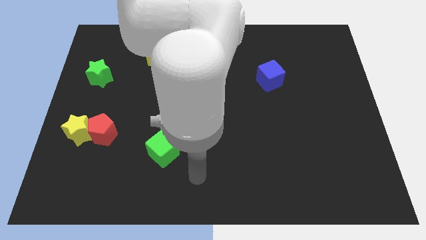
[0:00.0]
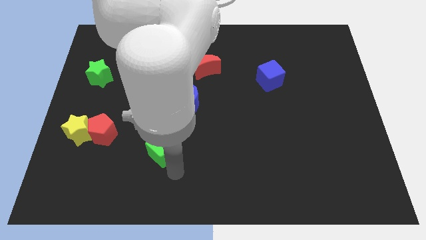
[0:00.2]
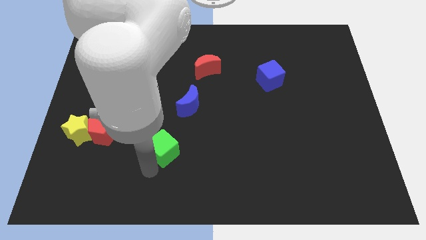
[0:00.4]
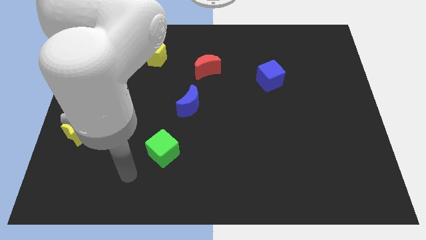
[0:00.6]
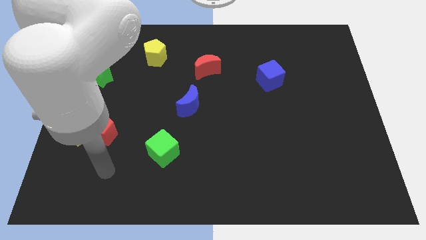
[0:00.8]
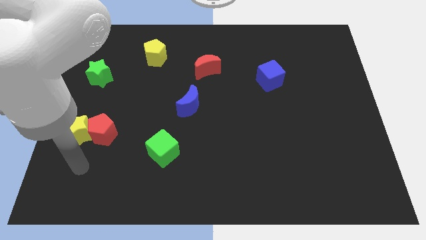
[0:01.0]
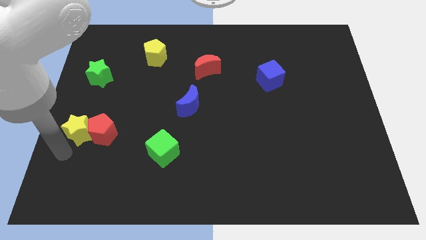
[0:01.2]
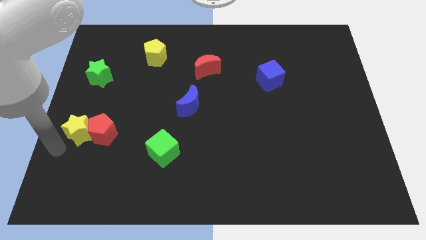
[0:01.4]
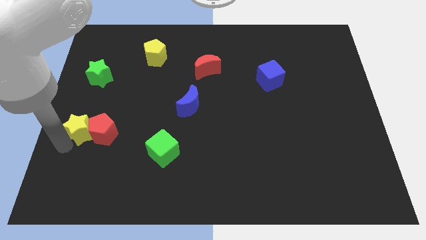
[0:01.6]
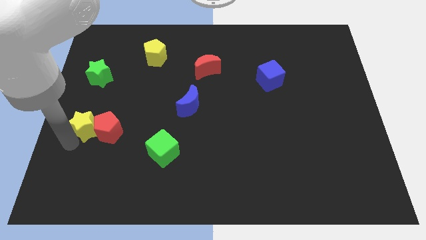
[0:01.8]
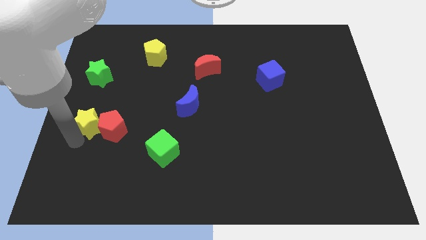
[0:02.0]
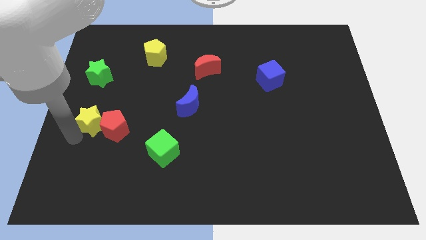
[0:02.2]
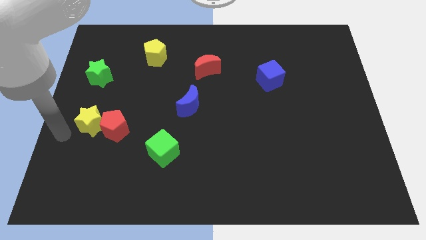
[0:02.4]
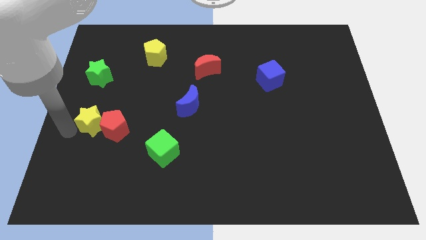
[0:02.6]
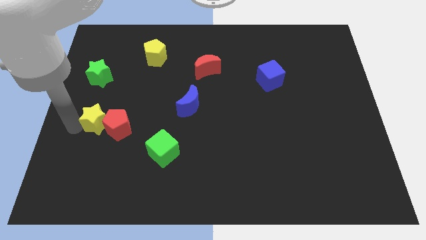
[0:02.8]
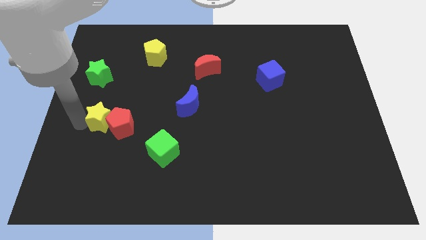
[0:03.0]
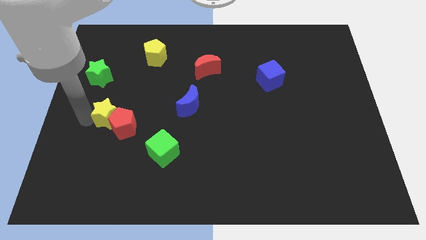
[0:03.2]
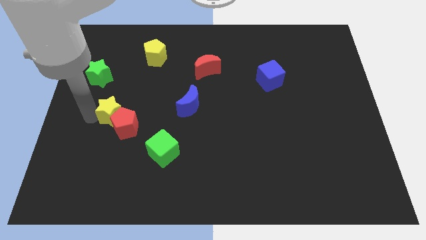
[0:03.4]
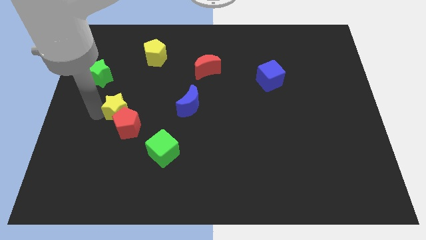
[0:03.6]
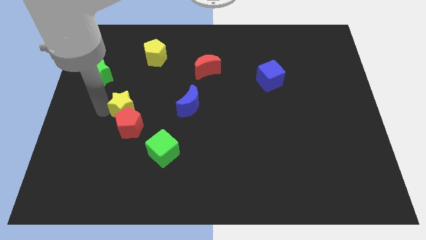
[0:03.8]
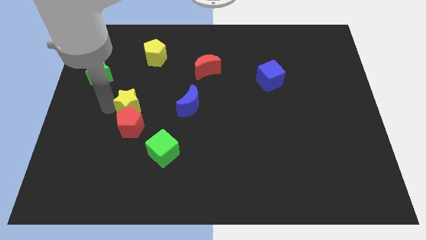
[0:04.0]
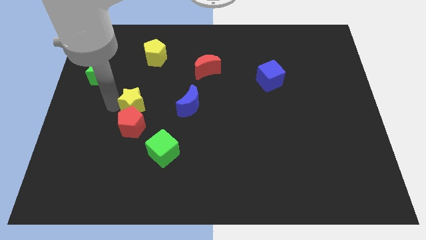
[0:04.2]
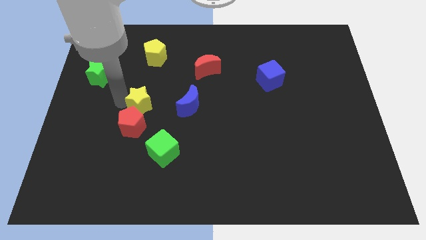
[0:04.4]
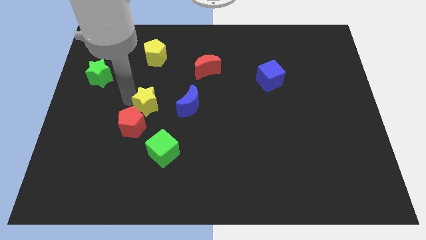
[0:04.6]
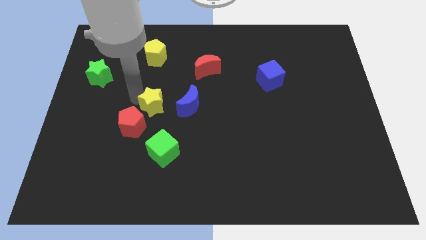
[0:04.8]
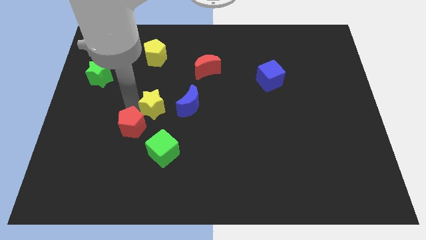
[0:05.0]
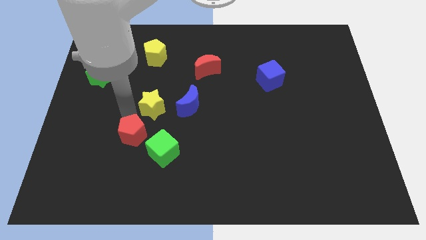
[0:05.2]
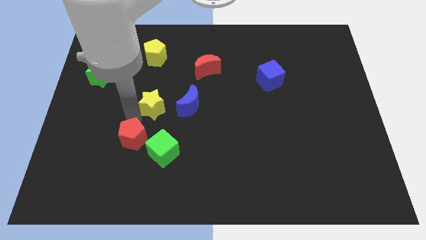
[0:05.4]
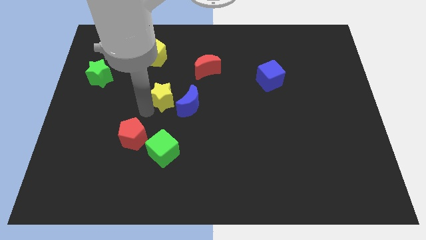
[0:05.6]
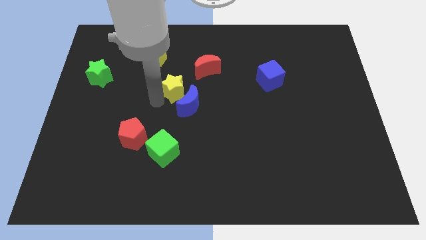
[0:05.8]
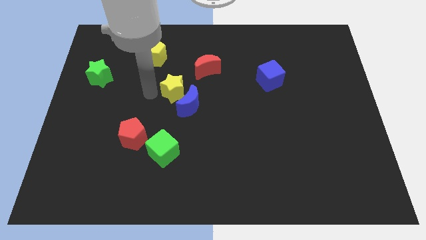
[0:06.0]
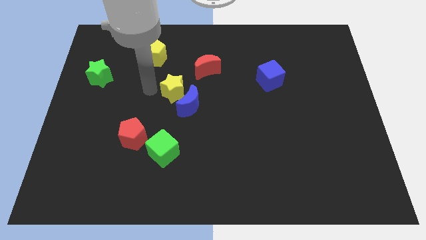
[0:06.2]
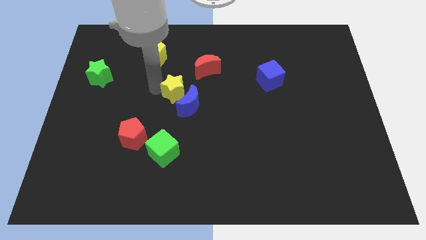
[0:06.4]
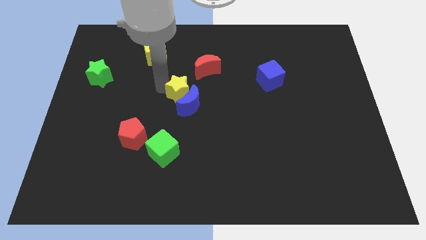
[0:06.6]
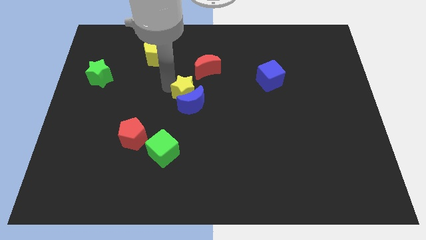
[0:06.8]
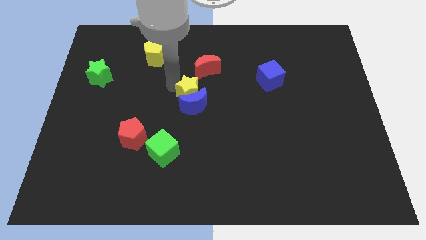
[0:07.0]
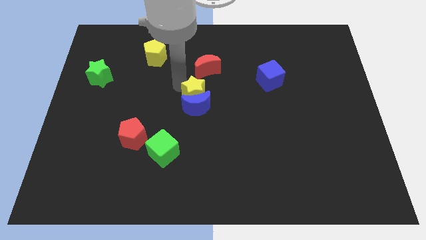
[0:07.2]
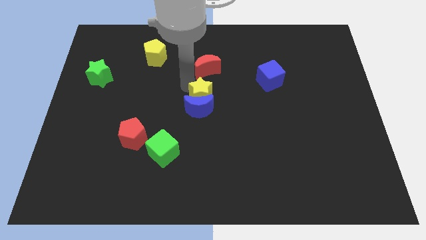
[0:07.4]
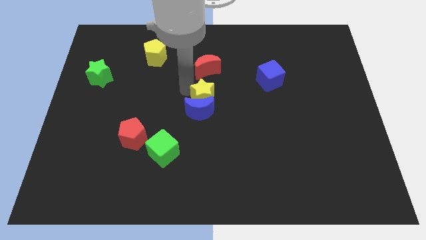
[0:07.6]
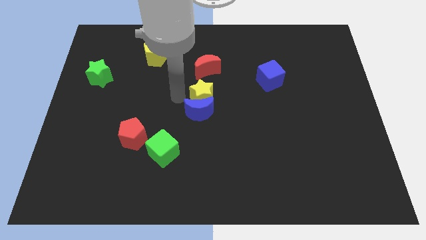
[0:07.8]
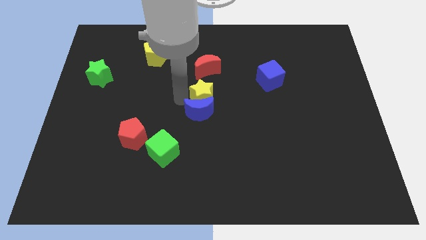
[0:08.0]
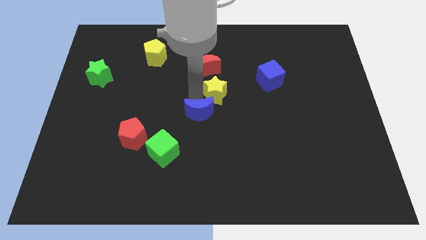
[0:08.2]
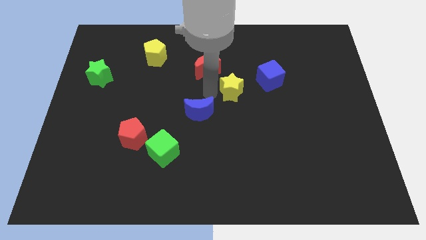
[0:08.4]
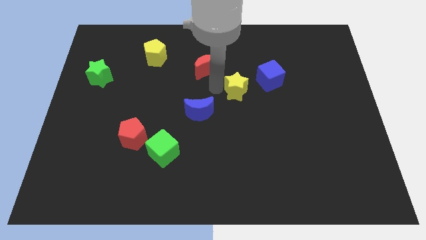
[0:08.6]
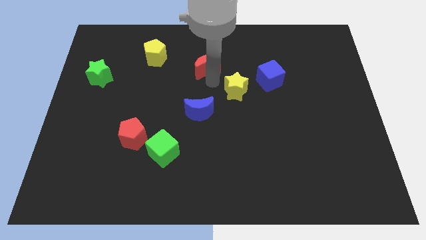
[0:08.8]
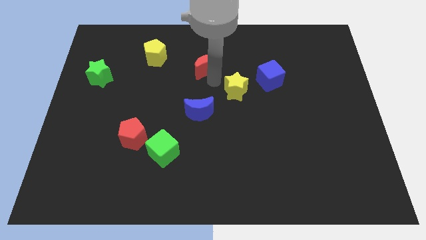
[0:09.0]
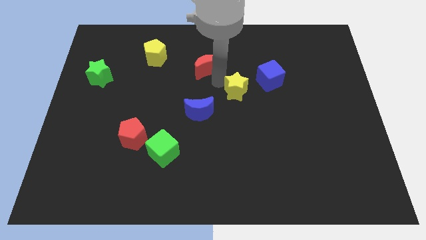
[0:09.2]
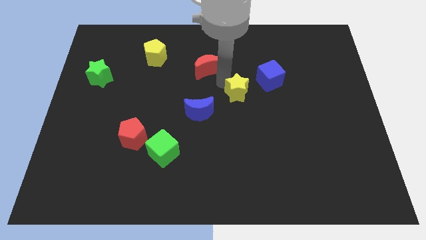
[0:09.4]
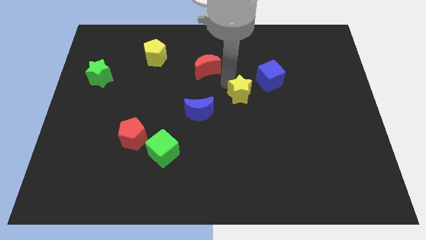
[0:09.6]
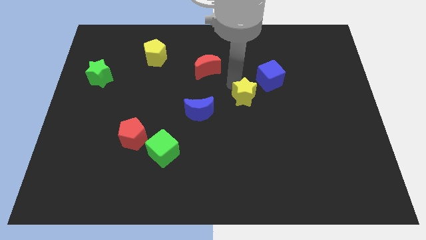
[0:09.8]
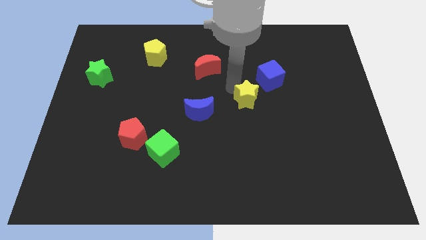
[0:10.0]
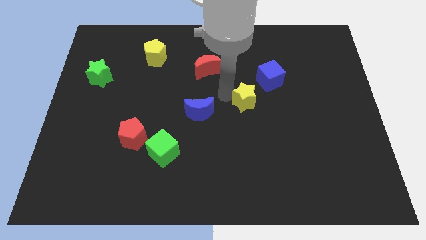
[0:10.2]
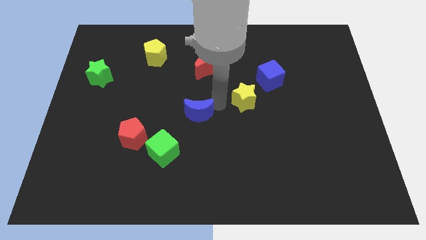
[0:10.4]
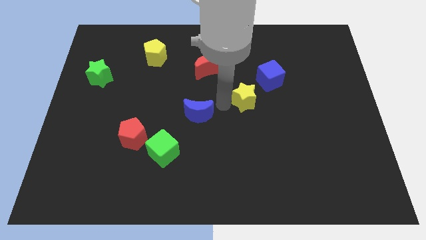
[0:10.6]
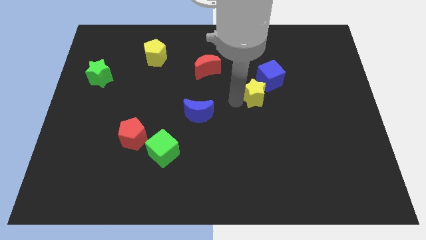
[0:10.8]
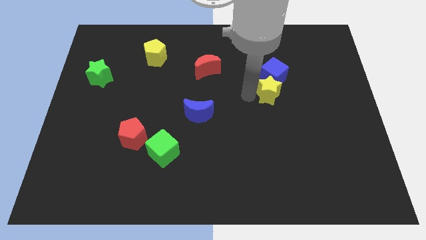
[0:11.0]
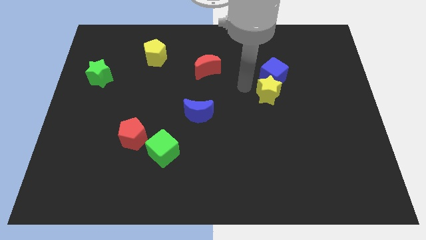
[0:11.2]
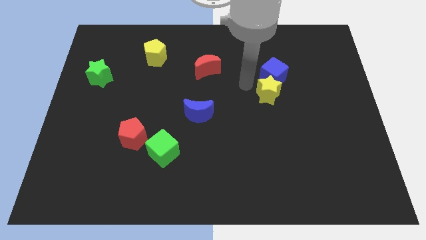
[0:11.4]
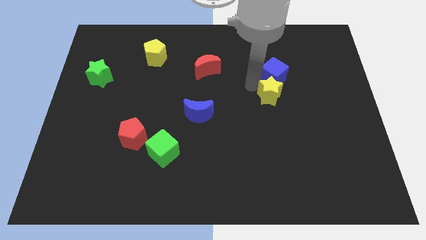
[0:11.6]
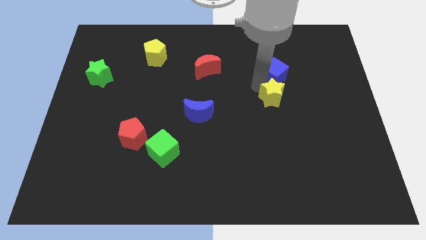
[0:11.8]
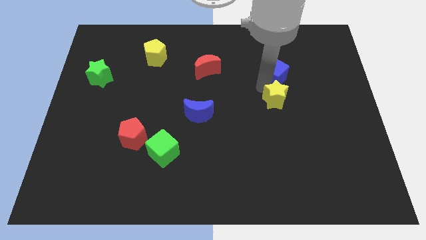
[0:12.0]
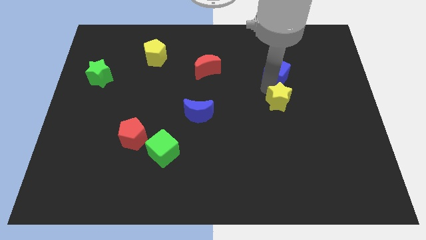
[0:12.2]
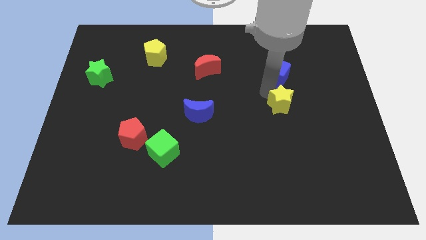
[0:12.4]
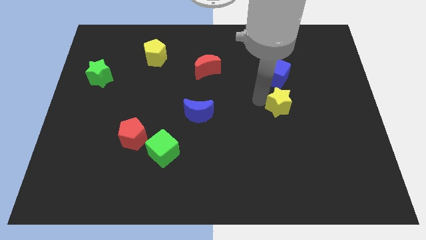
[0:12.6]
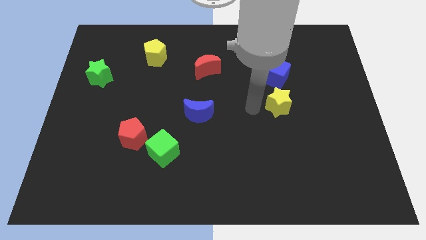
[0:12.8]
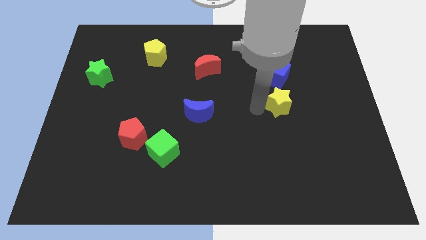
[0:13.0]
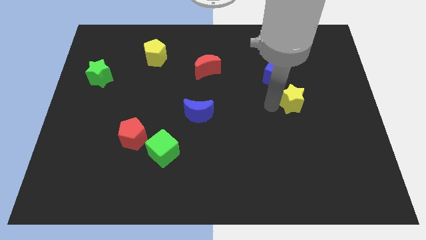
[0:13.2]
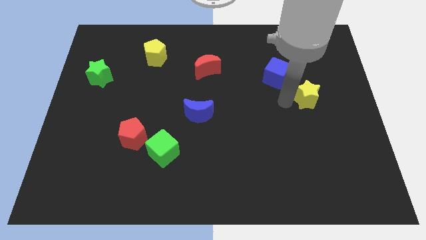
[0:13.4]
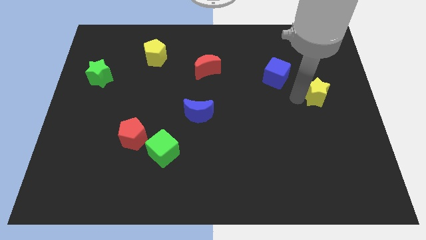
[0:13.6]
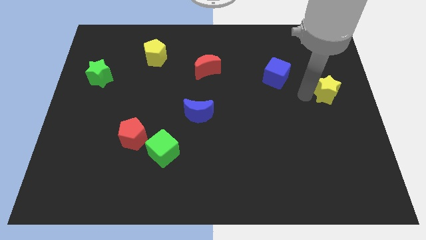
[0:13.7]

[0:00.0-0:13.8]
push the yellow star to the center right
